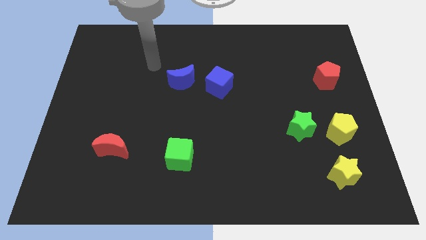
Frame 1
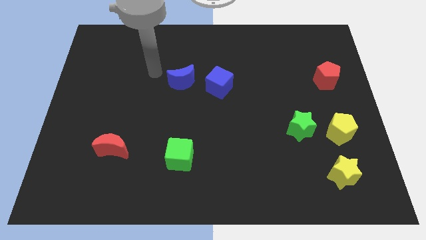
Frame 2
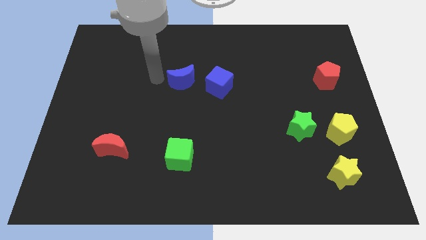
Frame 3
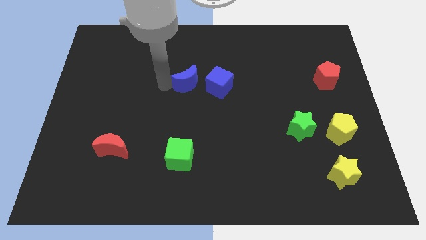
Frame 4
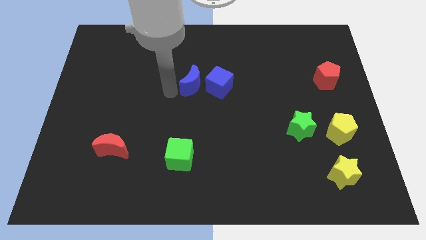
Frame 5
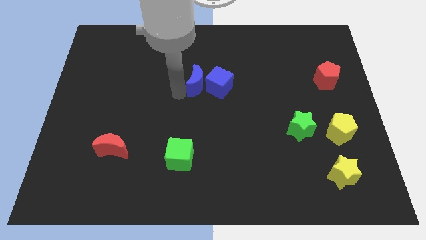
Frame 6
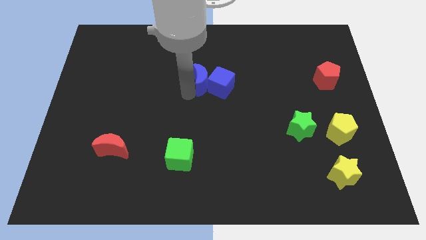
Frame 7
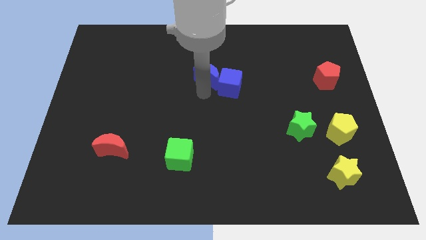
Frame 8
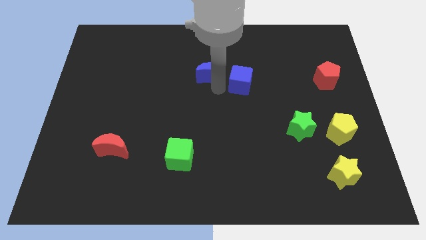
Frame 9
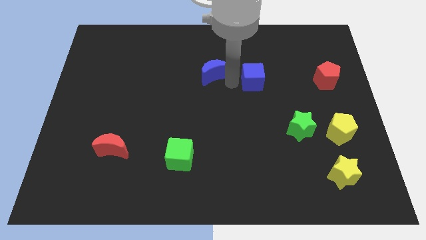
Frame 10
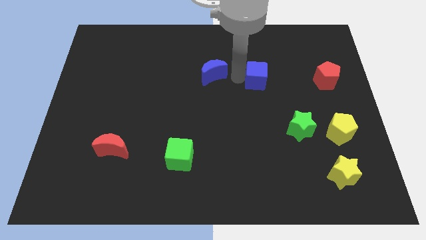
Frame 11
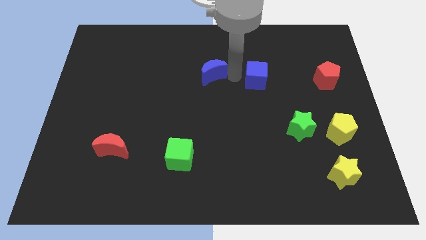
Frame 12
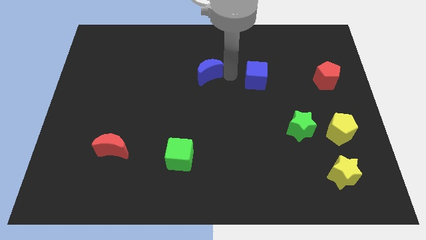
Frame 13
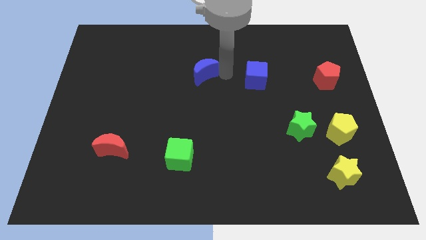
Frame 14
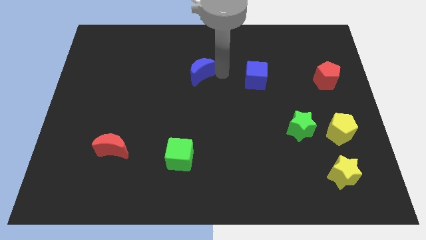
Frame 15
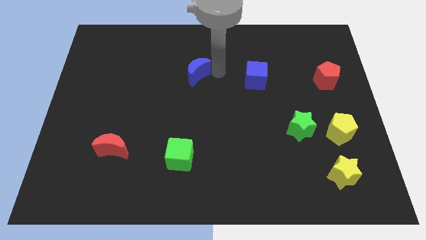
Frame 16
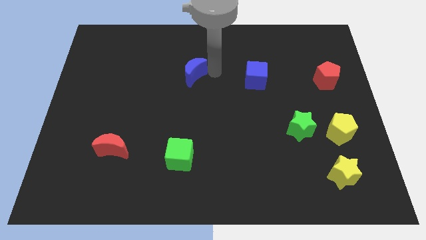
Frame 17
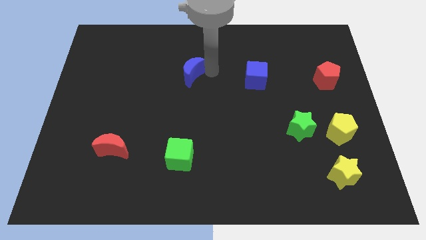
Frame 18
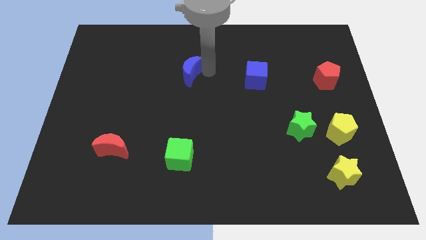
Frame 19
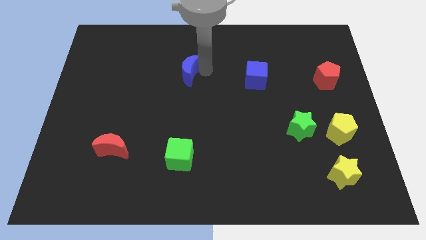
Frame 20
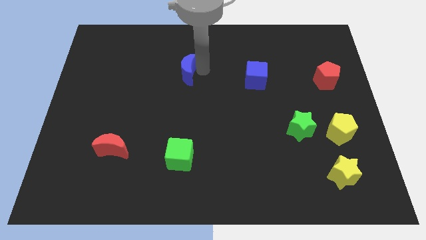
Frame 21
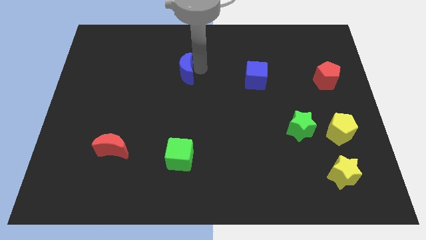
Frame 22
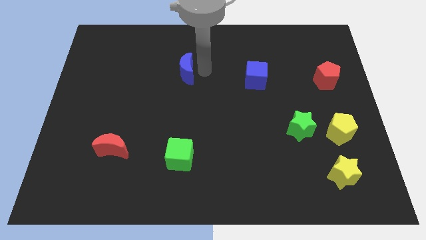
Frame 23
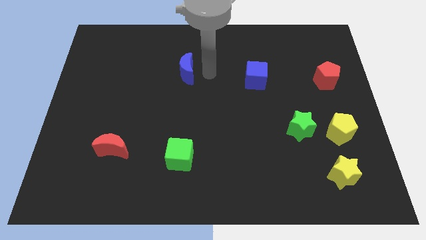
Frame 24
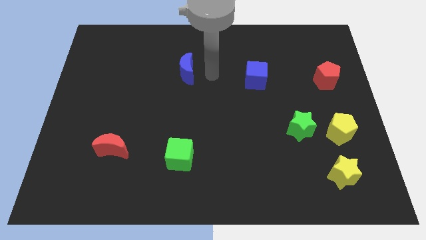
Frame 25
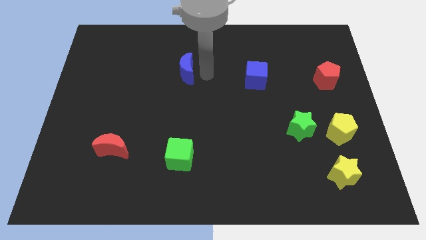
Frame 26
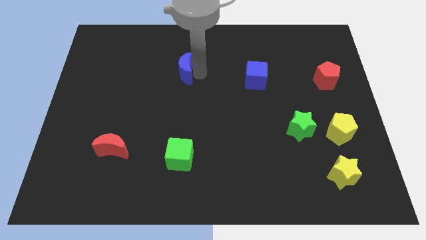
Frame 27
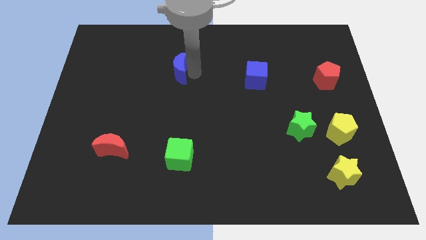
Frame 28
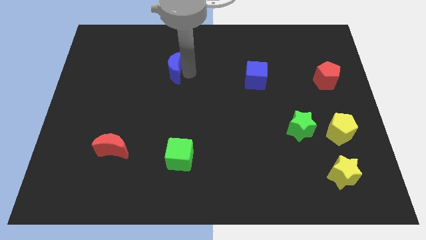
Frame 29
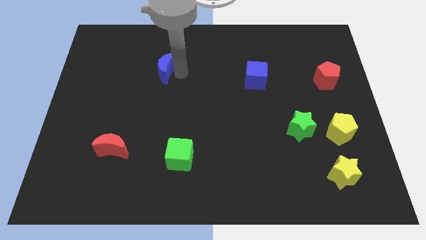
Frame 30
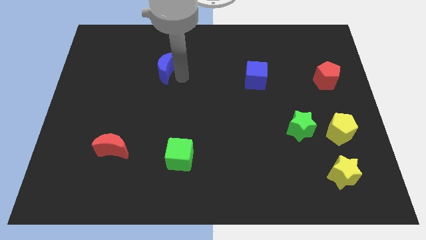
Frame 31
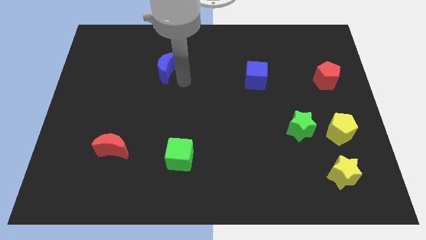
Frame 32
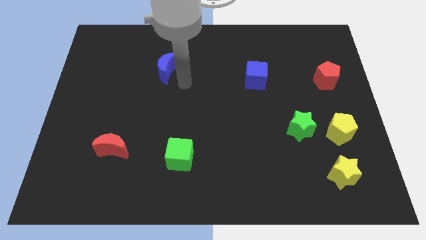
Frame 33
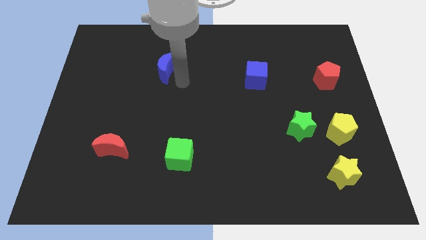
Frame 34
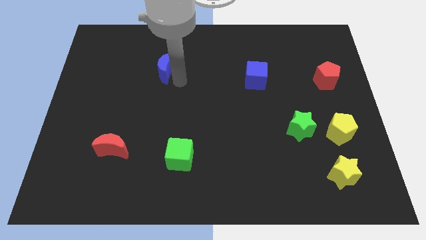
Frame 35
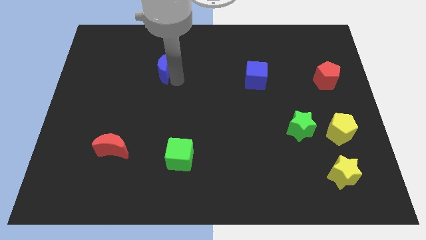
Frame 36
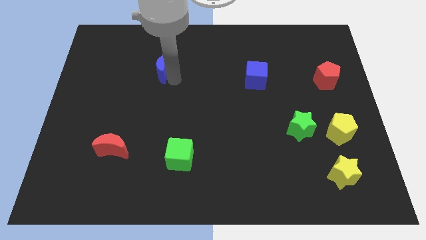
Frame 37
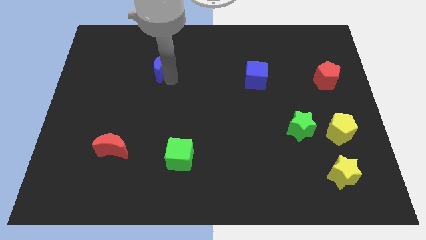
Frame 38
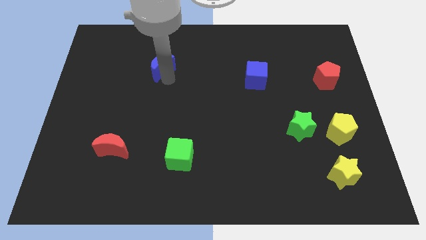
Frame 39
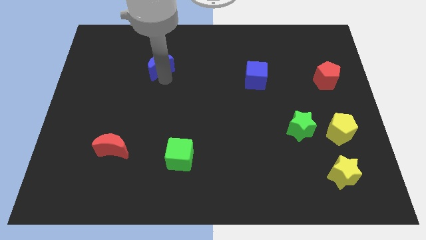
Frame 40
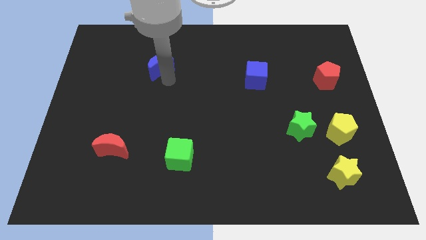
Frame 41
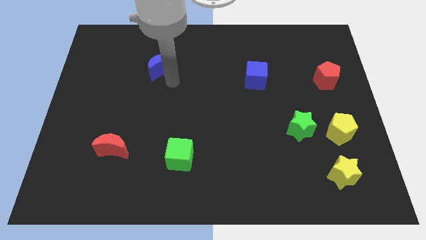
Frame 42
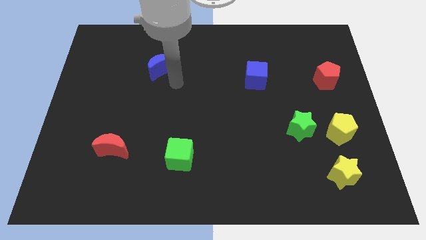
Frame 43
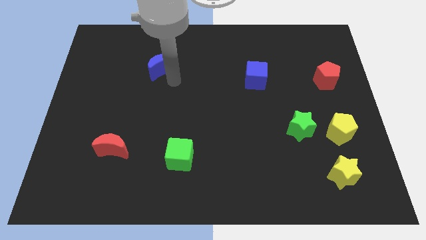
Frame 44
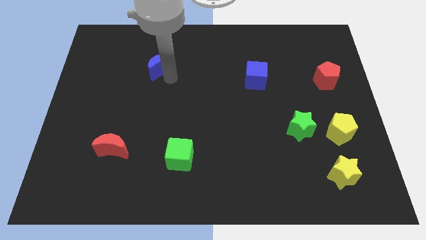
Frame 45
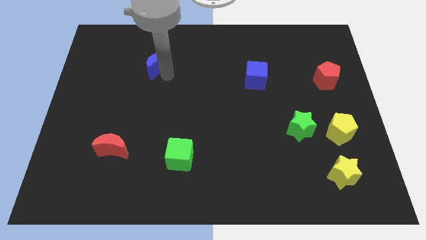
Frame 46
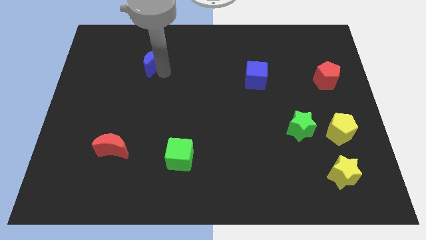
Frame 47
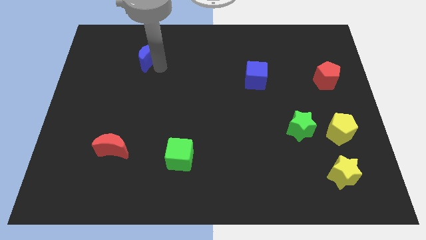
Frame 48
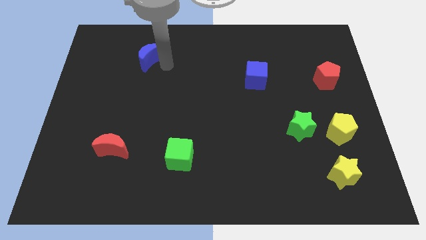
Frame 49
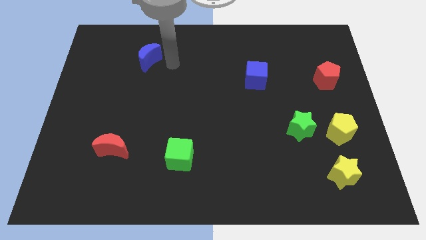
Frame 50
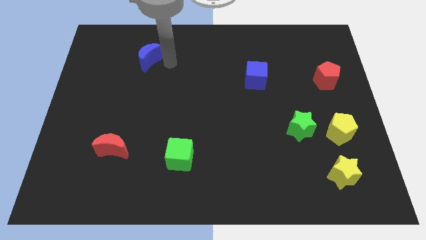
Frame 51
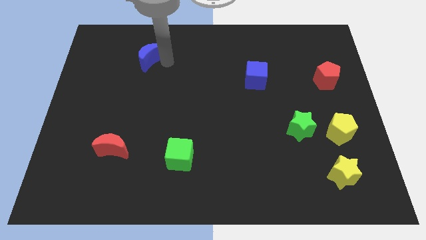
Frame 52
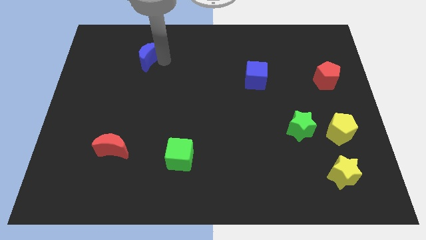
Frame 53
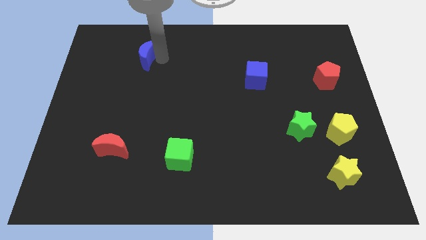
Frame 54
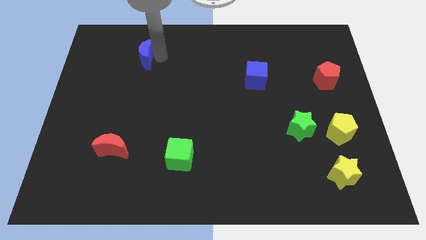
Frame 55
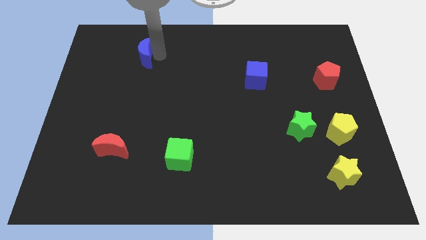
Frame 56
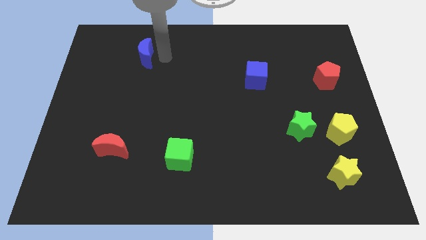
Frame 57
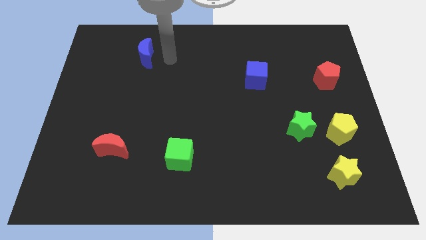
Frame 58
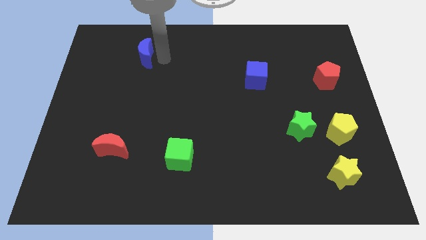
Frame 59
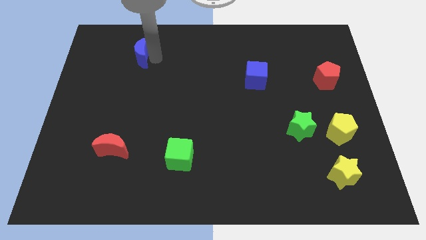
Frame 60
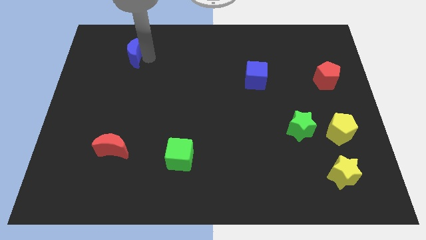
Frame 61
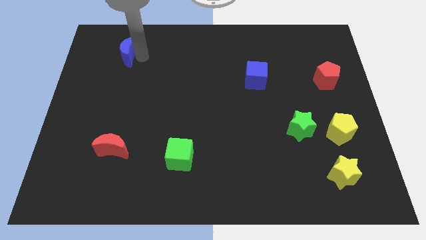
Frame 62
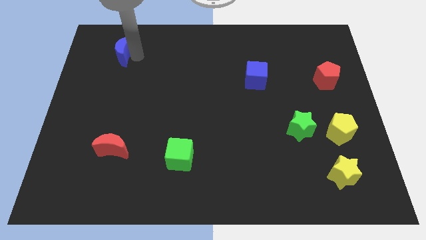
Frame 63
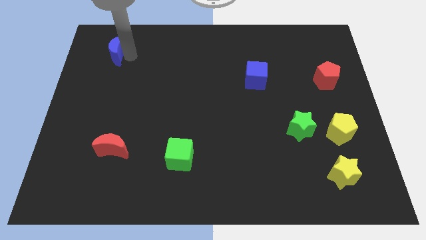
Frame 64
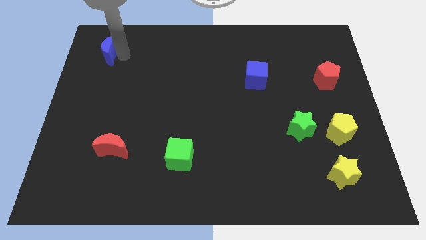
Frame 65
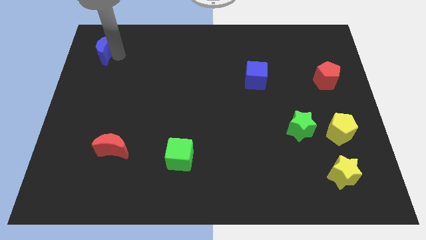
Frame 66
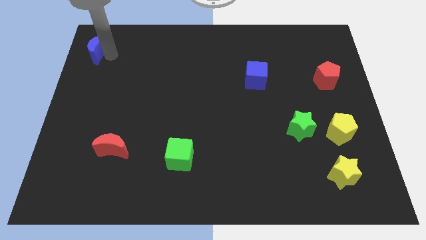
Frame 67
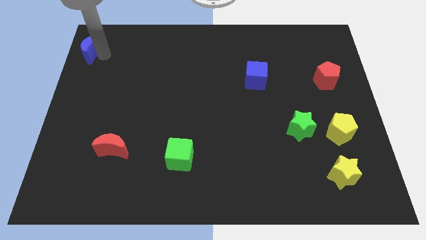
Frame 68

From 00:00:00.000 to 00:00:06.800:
put the blue moon to the top left

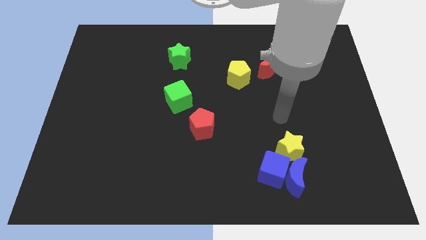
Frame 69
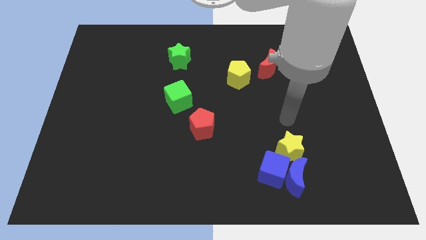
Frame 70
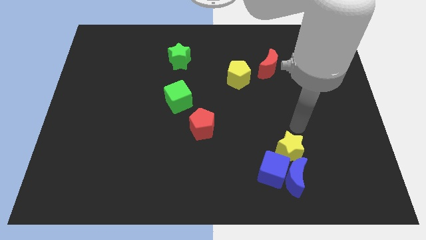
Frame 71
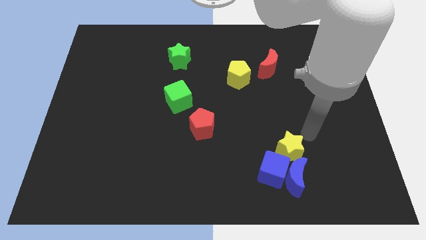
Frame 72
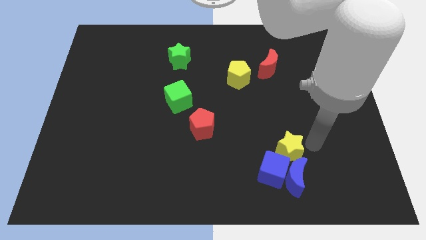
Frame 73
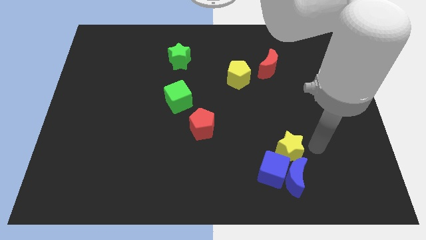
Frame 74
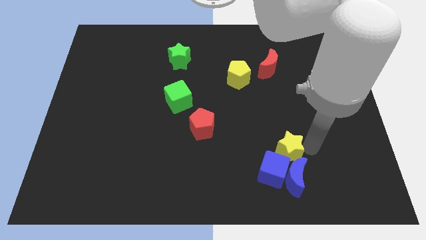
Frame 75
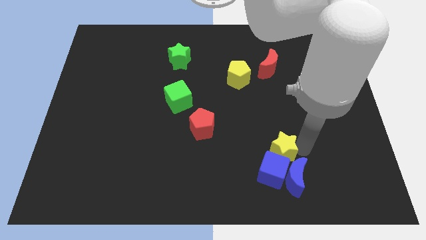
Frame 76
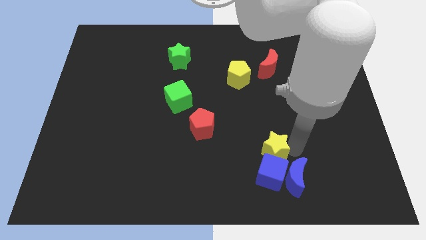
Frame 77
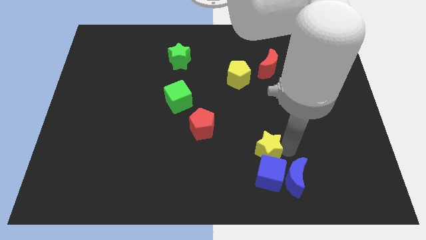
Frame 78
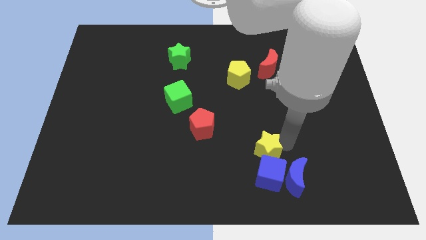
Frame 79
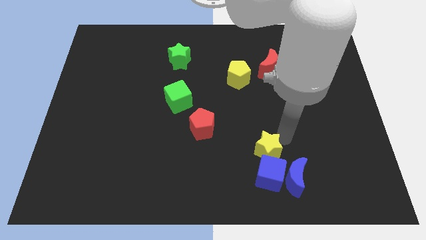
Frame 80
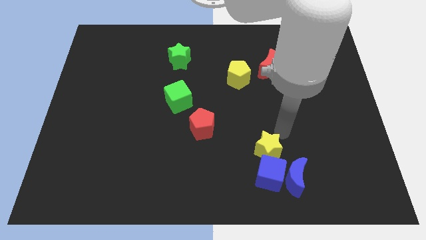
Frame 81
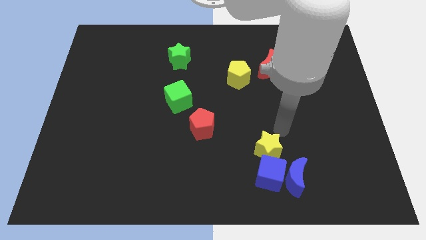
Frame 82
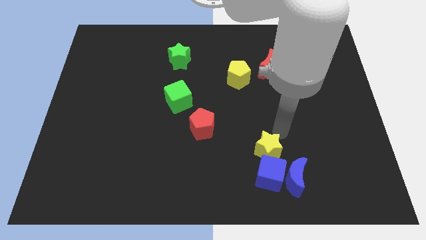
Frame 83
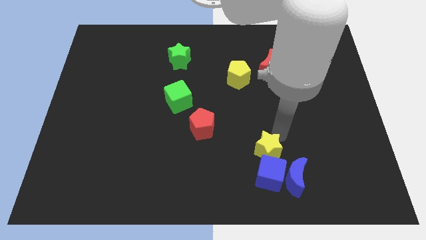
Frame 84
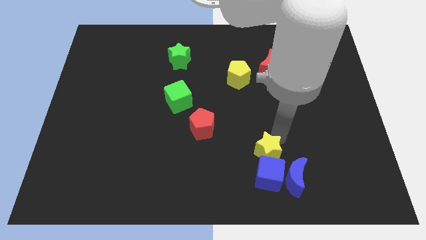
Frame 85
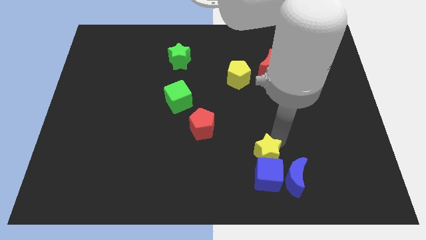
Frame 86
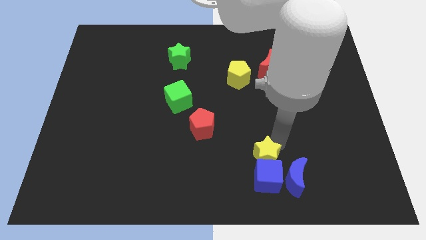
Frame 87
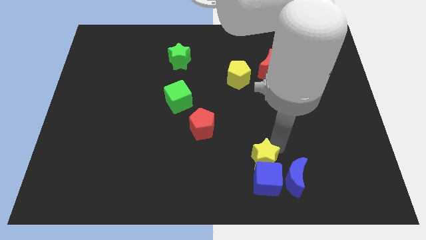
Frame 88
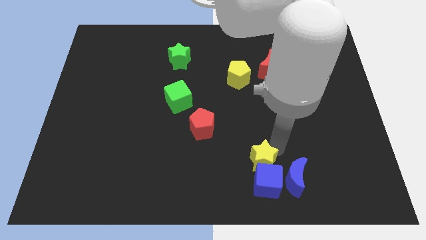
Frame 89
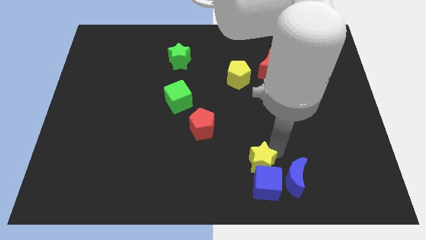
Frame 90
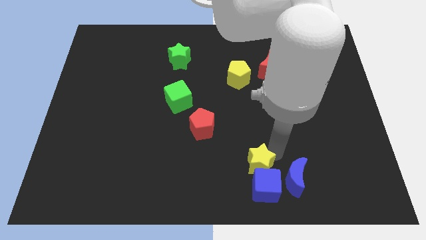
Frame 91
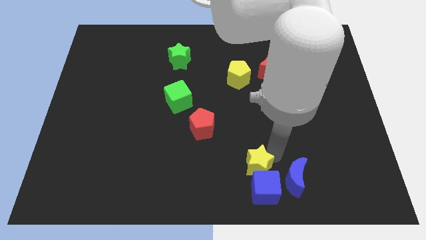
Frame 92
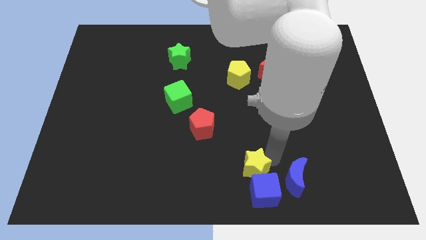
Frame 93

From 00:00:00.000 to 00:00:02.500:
put the yellow star to the bottom side
